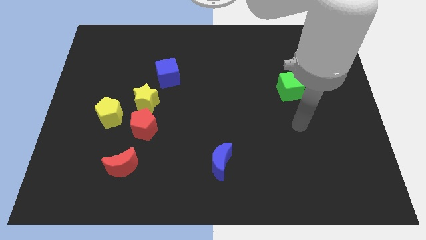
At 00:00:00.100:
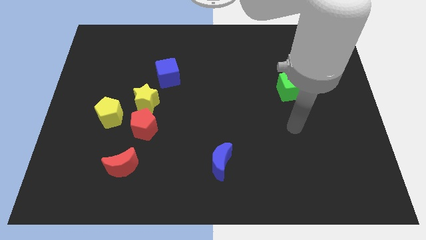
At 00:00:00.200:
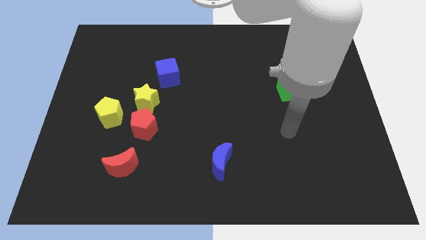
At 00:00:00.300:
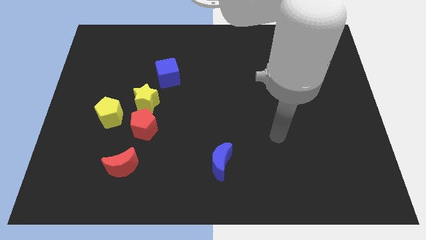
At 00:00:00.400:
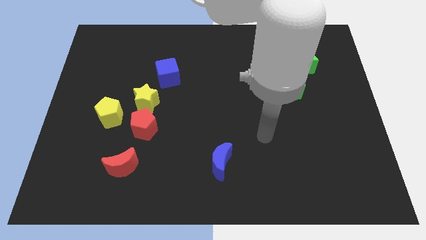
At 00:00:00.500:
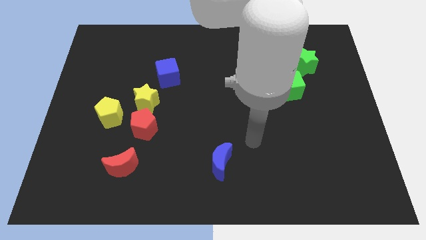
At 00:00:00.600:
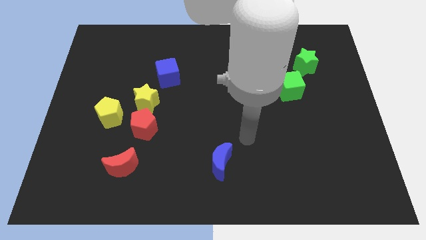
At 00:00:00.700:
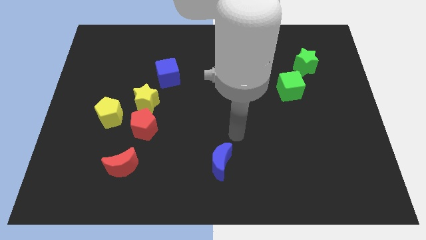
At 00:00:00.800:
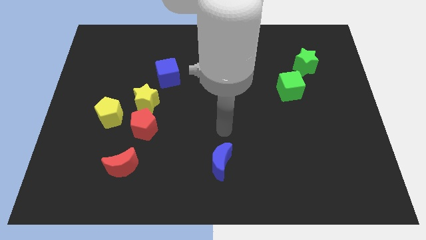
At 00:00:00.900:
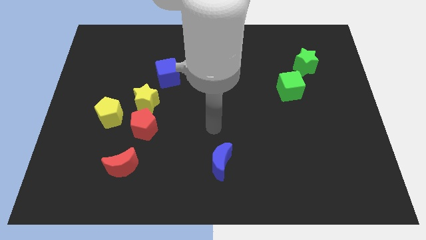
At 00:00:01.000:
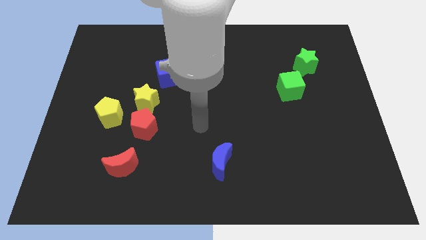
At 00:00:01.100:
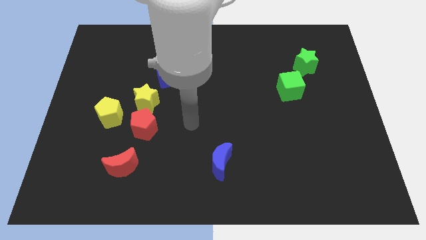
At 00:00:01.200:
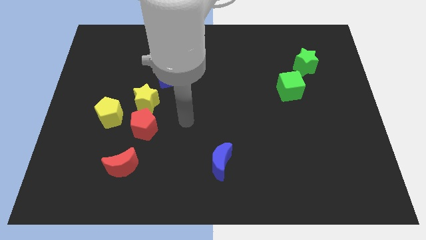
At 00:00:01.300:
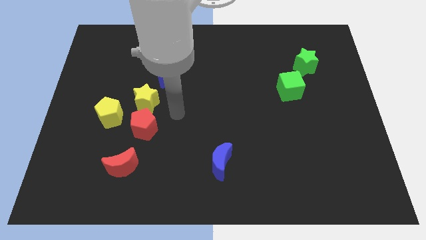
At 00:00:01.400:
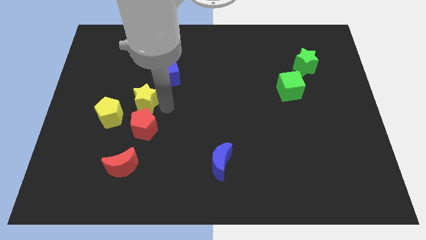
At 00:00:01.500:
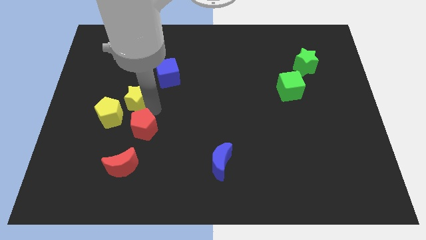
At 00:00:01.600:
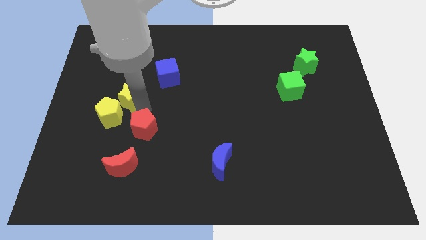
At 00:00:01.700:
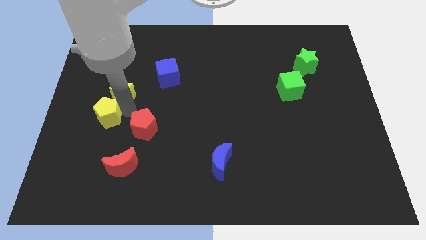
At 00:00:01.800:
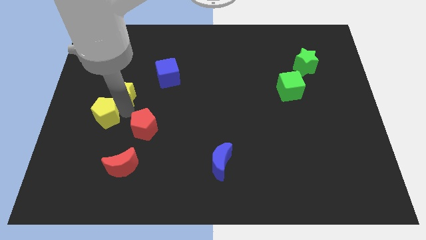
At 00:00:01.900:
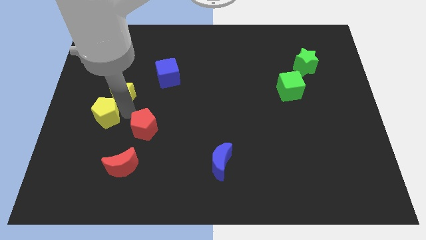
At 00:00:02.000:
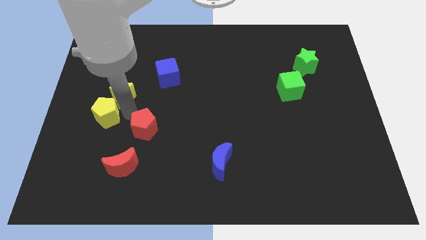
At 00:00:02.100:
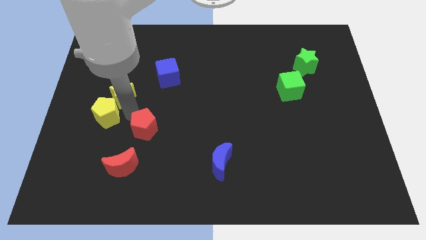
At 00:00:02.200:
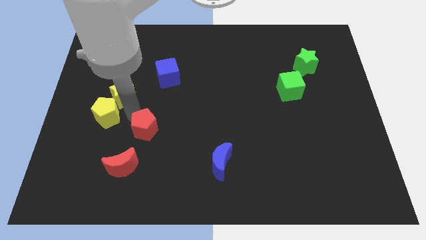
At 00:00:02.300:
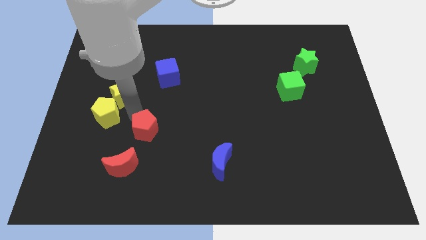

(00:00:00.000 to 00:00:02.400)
move the red pentagon away from the yellow star and yellow pentagon

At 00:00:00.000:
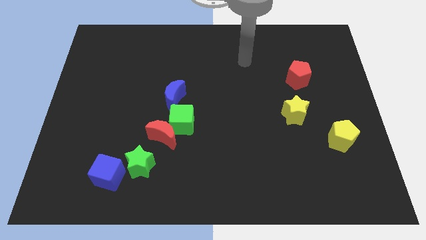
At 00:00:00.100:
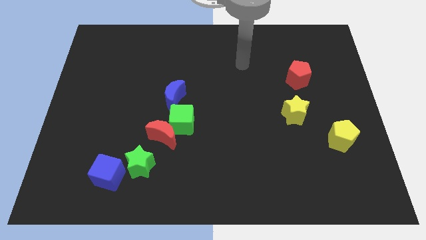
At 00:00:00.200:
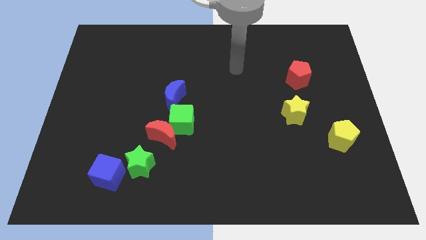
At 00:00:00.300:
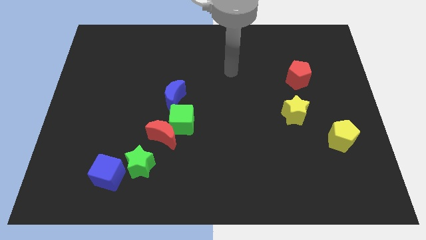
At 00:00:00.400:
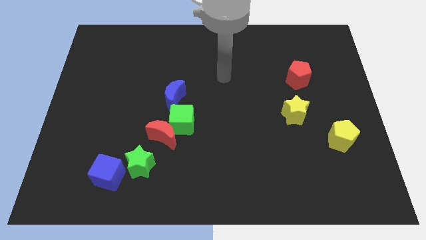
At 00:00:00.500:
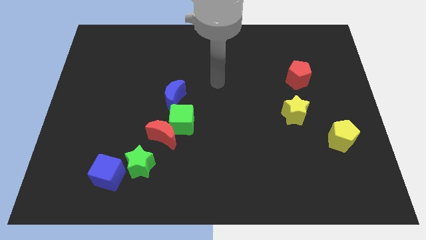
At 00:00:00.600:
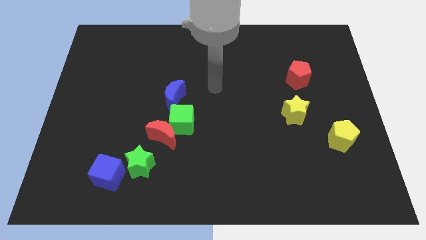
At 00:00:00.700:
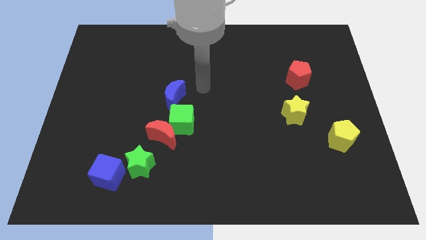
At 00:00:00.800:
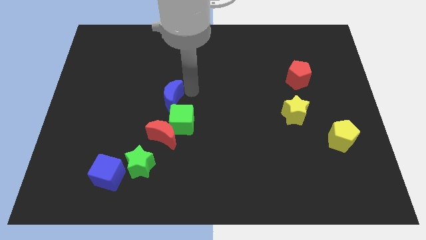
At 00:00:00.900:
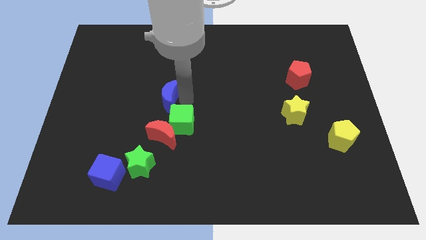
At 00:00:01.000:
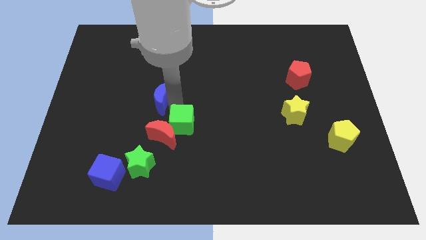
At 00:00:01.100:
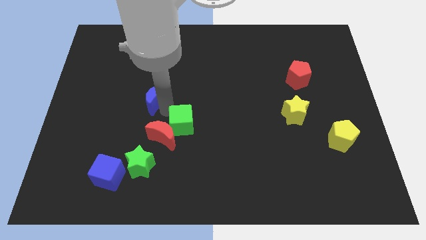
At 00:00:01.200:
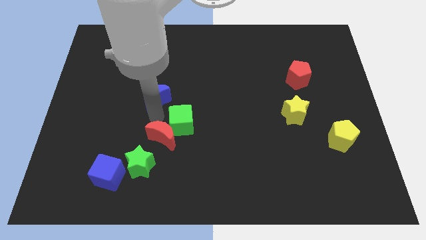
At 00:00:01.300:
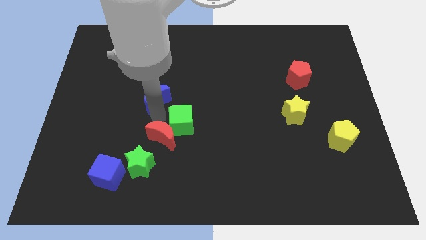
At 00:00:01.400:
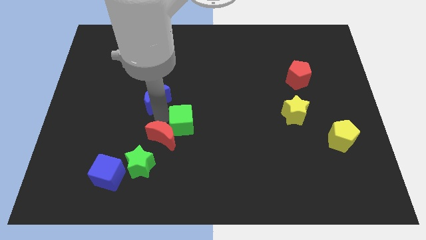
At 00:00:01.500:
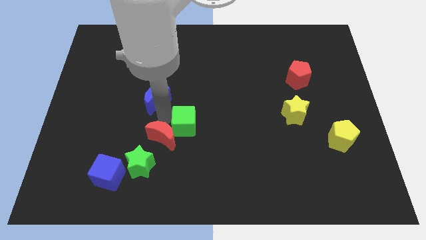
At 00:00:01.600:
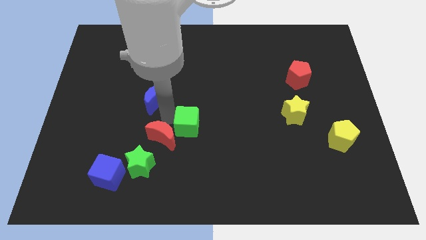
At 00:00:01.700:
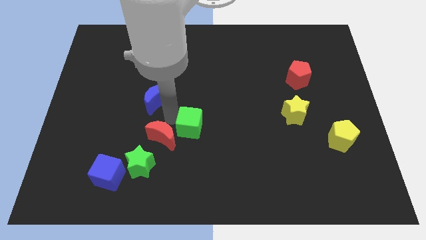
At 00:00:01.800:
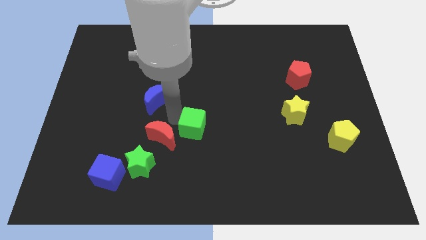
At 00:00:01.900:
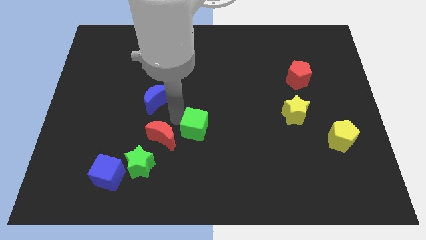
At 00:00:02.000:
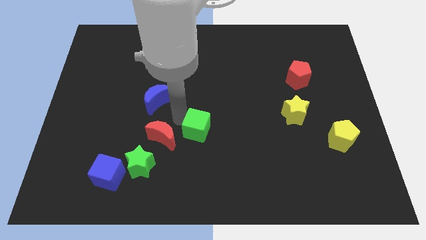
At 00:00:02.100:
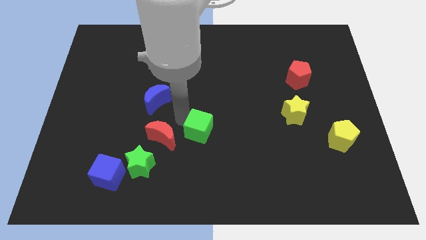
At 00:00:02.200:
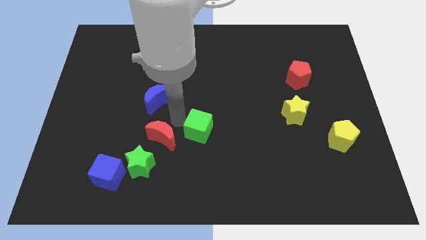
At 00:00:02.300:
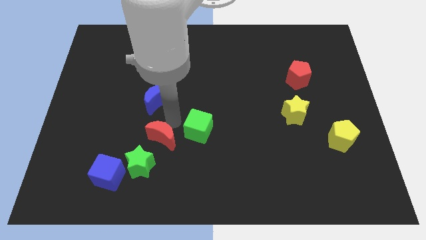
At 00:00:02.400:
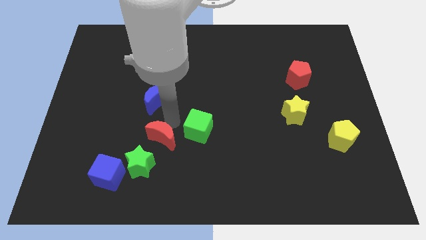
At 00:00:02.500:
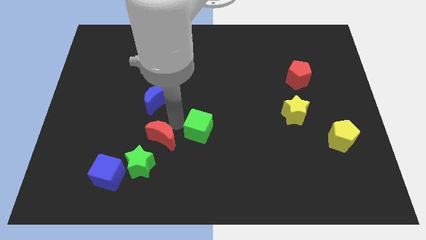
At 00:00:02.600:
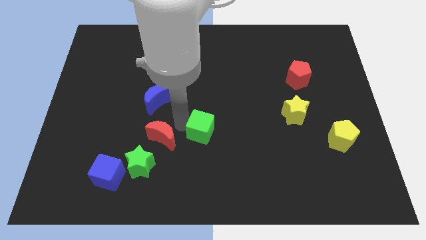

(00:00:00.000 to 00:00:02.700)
move the green cube away from the red moon and blue moon

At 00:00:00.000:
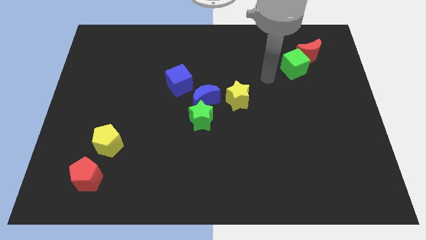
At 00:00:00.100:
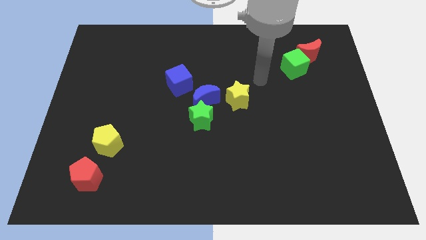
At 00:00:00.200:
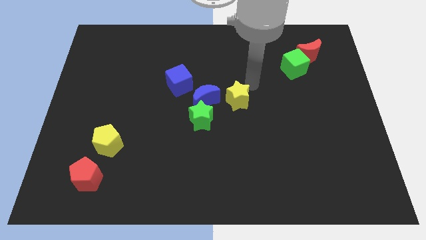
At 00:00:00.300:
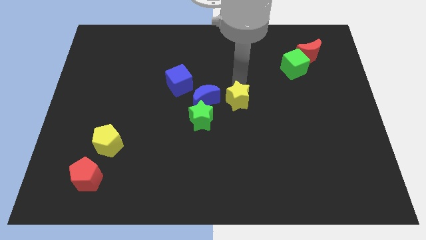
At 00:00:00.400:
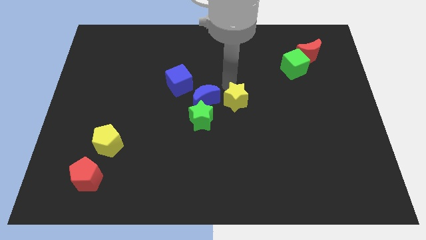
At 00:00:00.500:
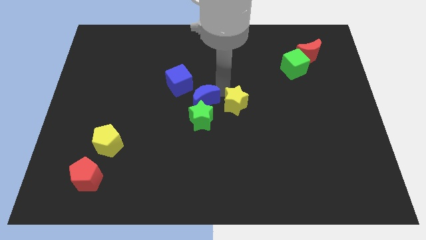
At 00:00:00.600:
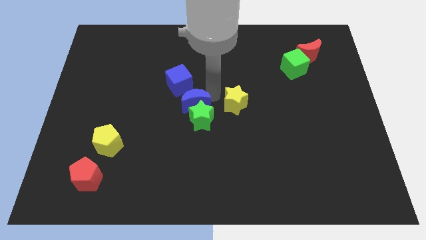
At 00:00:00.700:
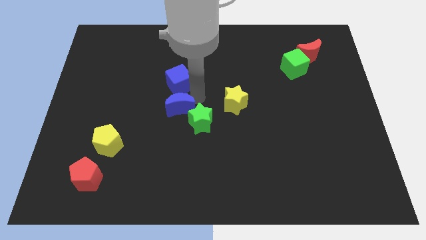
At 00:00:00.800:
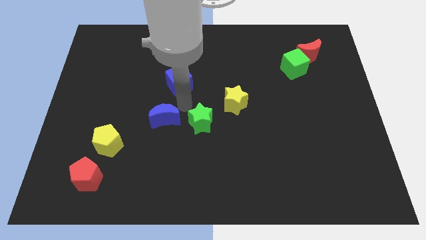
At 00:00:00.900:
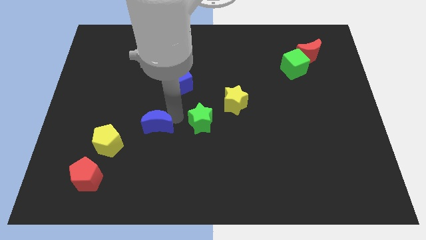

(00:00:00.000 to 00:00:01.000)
separate the green star from the blue moon

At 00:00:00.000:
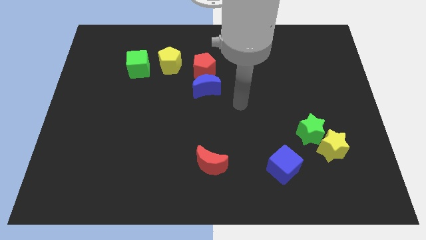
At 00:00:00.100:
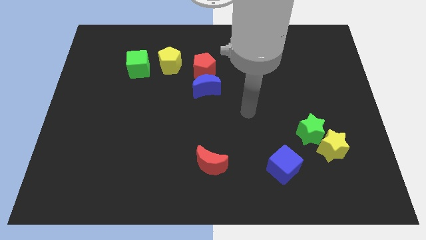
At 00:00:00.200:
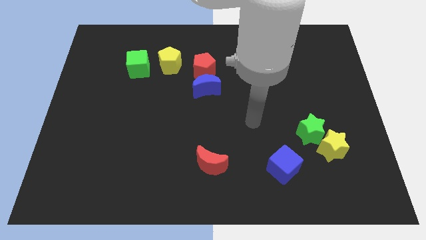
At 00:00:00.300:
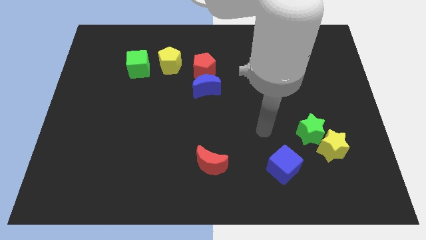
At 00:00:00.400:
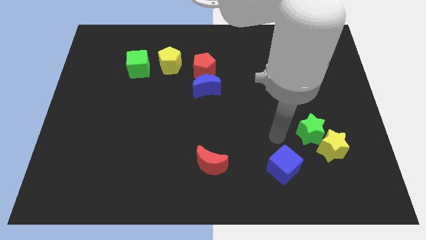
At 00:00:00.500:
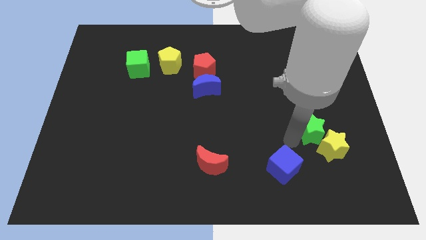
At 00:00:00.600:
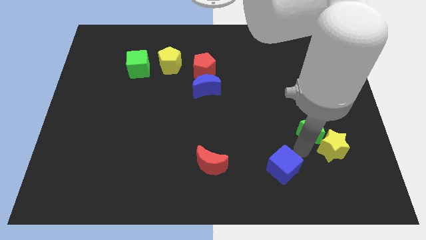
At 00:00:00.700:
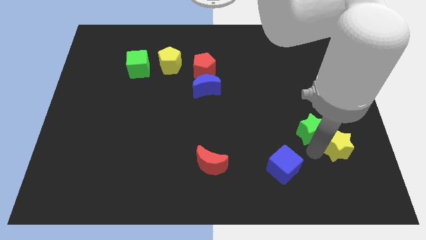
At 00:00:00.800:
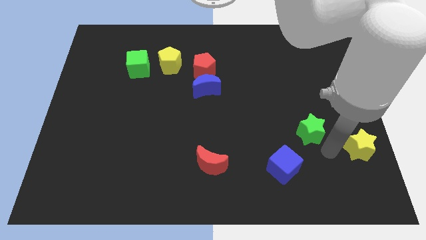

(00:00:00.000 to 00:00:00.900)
pull the green star apart from the yellow star

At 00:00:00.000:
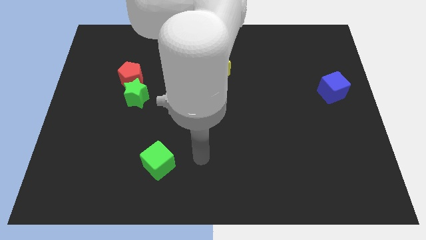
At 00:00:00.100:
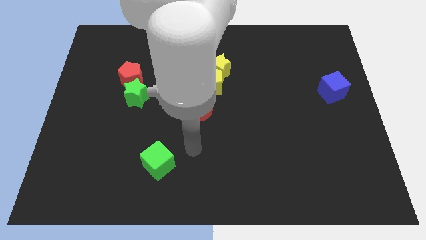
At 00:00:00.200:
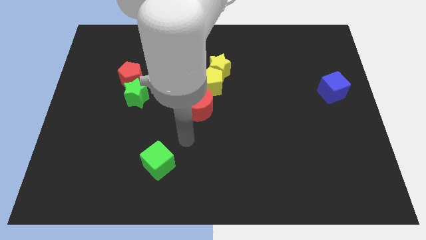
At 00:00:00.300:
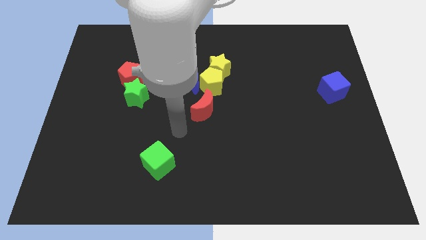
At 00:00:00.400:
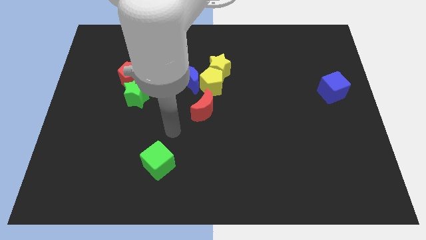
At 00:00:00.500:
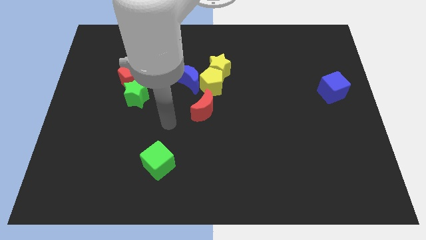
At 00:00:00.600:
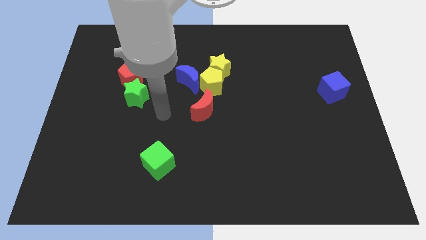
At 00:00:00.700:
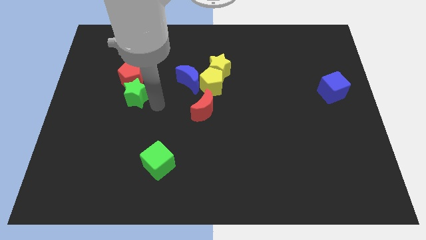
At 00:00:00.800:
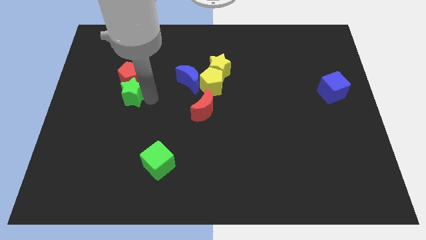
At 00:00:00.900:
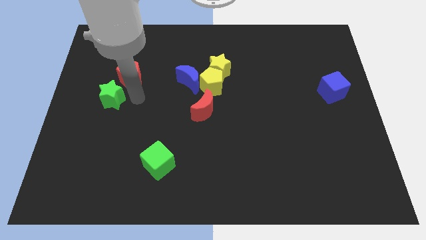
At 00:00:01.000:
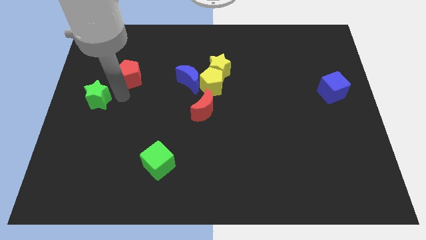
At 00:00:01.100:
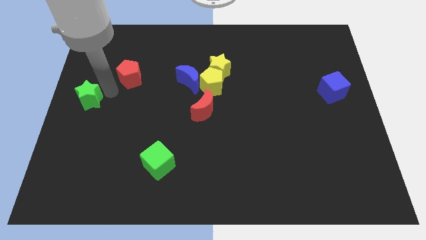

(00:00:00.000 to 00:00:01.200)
separate the red pentagon from the green star

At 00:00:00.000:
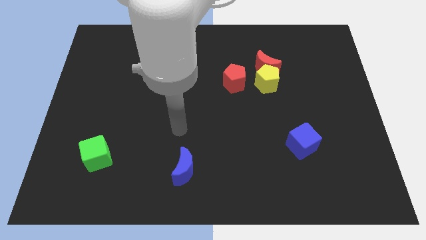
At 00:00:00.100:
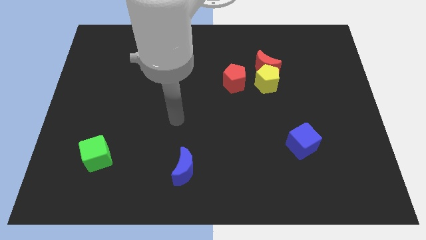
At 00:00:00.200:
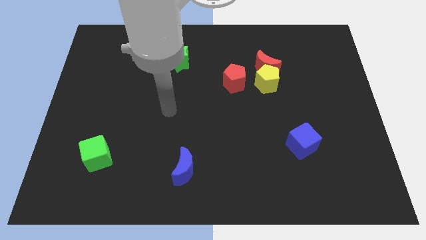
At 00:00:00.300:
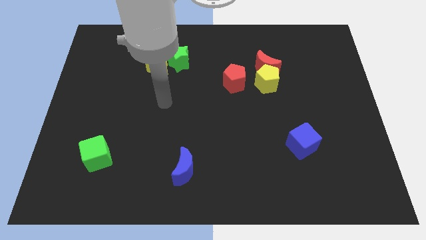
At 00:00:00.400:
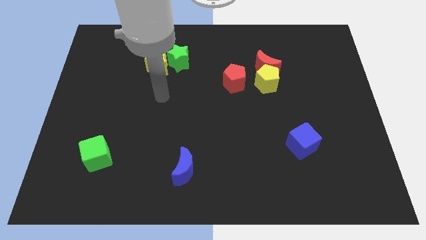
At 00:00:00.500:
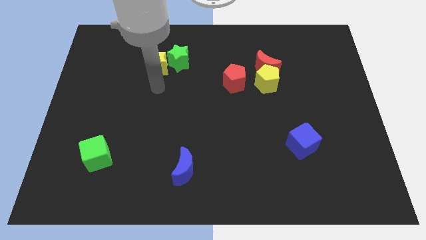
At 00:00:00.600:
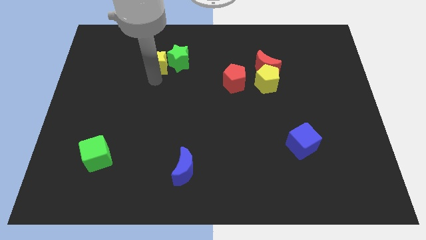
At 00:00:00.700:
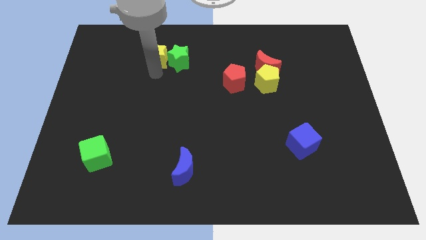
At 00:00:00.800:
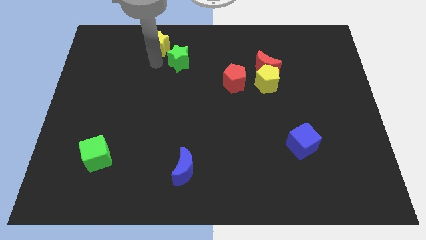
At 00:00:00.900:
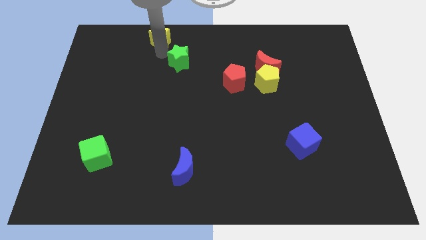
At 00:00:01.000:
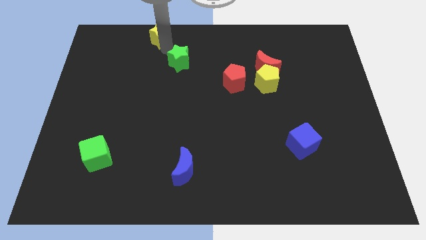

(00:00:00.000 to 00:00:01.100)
separate the green star from the yellow star
